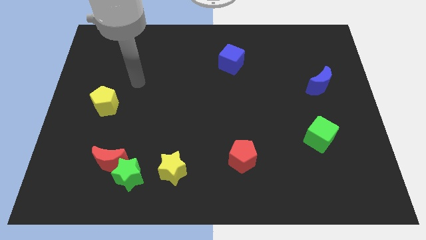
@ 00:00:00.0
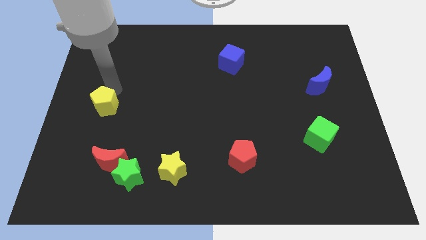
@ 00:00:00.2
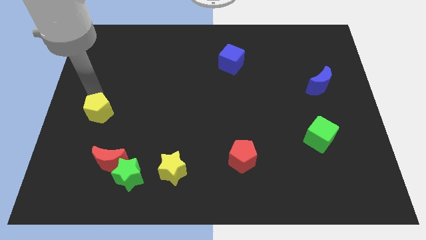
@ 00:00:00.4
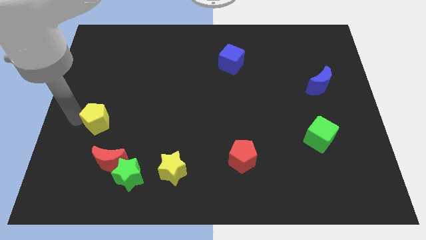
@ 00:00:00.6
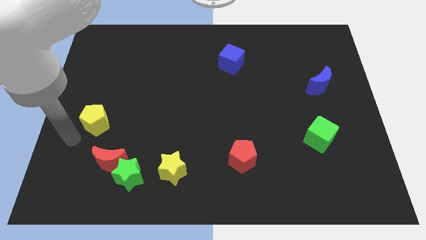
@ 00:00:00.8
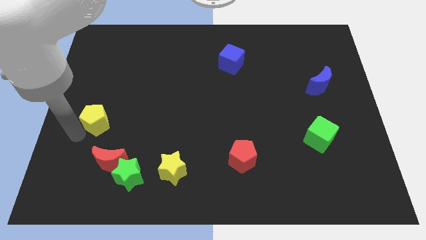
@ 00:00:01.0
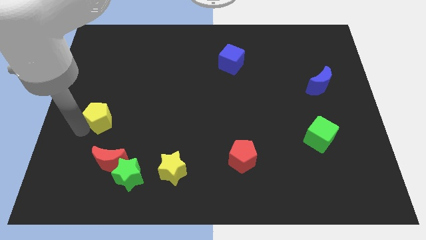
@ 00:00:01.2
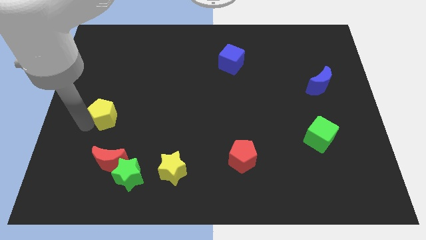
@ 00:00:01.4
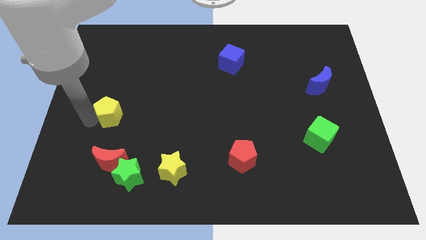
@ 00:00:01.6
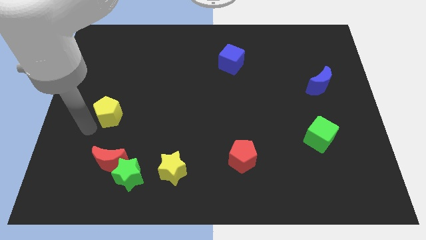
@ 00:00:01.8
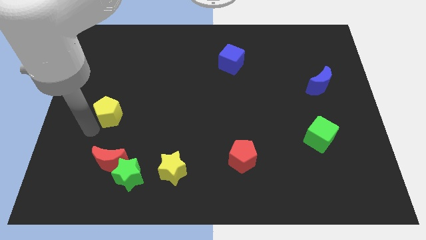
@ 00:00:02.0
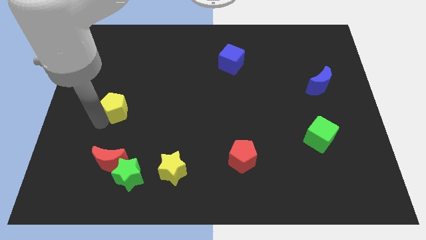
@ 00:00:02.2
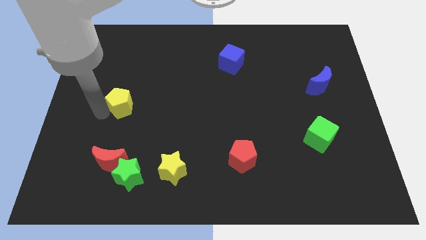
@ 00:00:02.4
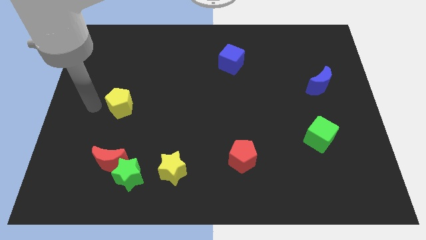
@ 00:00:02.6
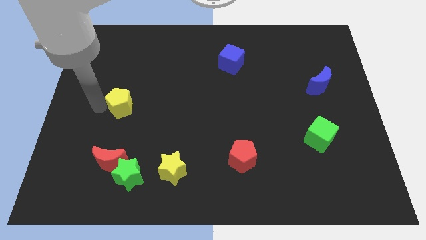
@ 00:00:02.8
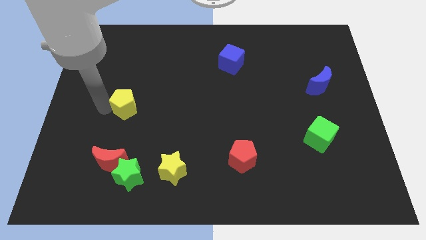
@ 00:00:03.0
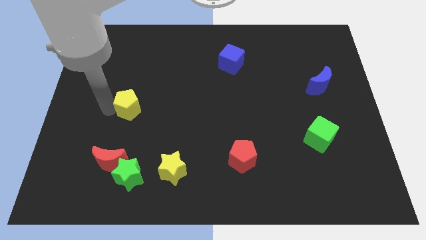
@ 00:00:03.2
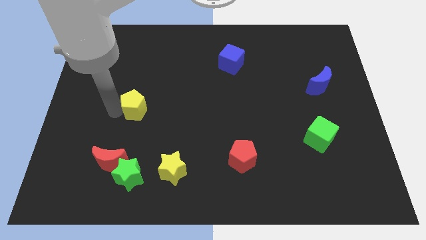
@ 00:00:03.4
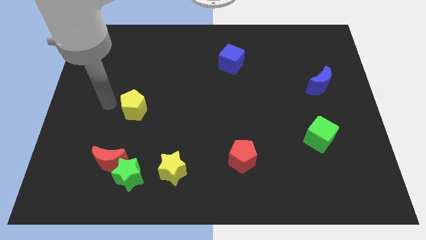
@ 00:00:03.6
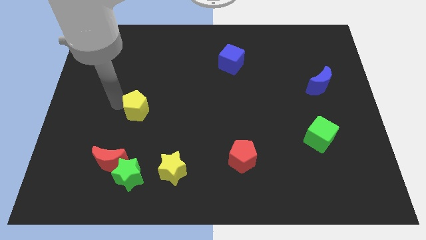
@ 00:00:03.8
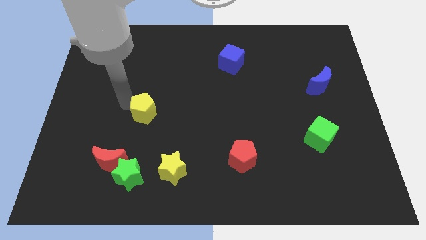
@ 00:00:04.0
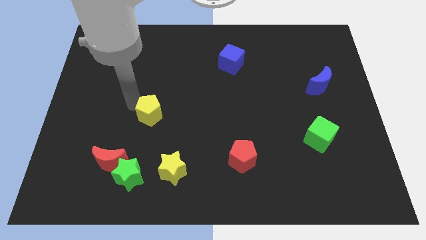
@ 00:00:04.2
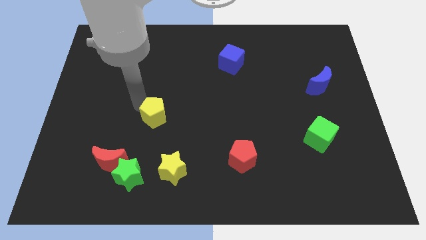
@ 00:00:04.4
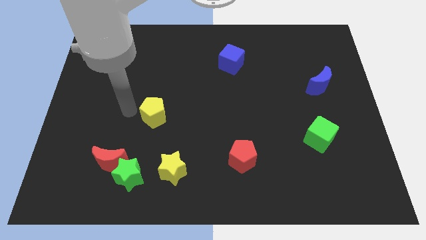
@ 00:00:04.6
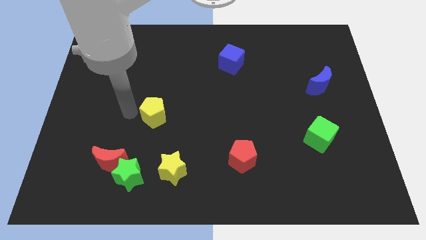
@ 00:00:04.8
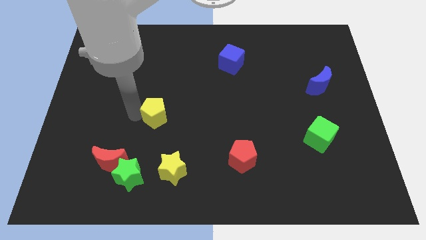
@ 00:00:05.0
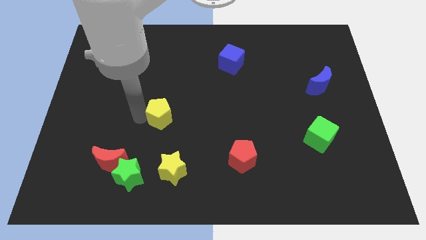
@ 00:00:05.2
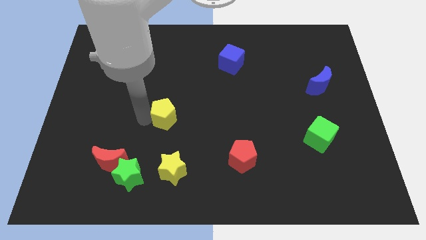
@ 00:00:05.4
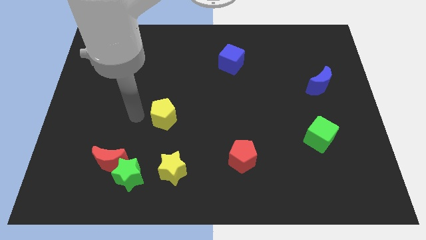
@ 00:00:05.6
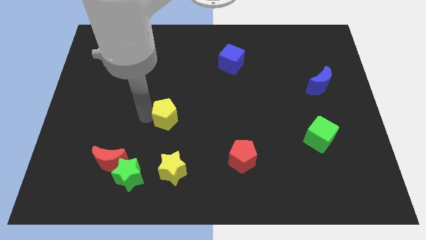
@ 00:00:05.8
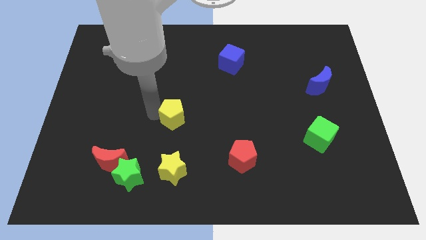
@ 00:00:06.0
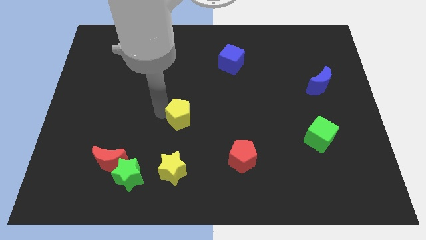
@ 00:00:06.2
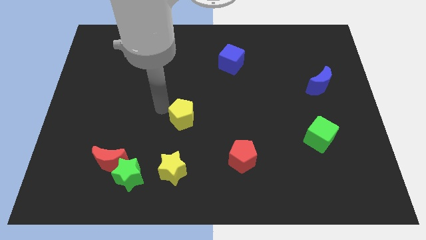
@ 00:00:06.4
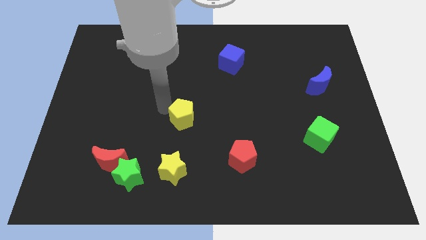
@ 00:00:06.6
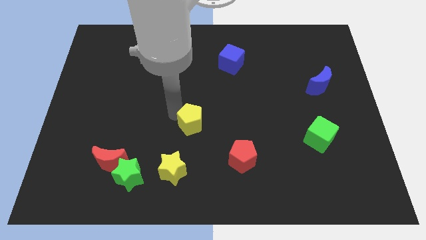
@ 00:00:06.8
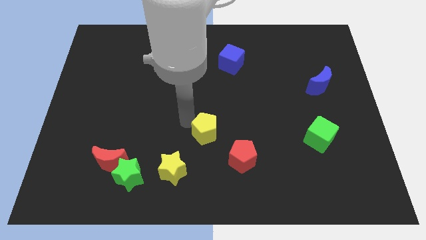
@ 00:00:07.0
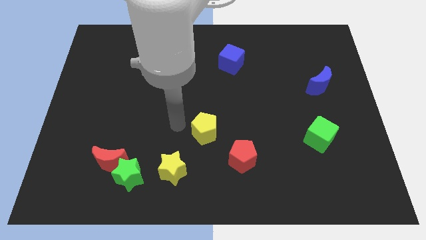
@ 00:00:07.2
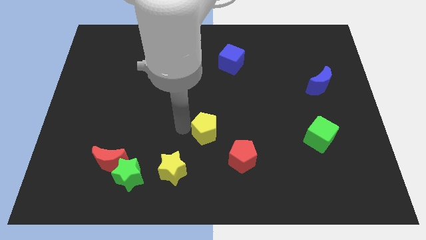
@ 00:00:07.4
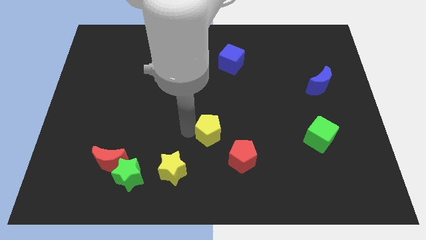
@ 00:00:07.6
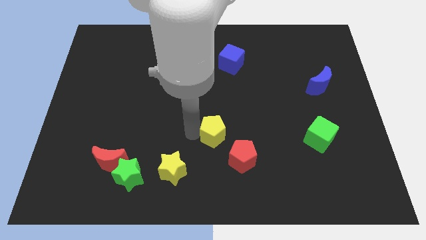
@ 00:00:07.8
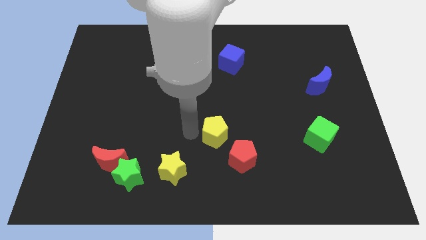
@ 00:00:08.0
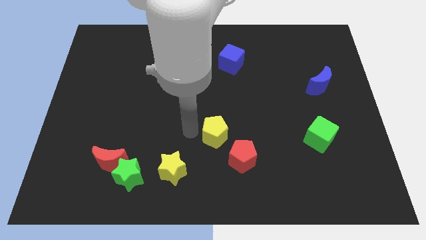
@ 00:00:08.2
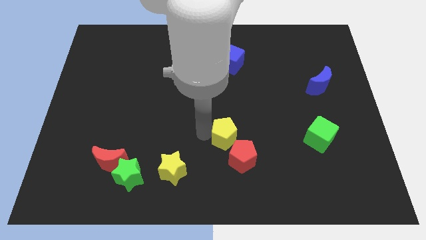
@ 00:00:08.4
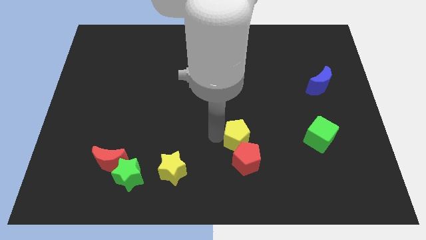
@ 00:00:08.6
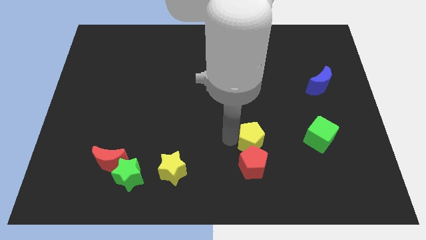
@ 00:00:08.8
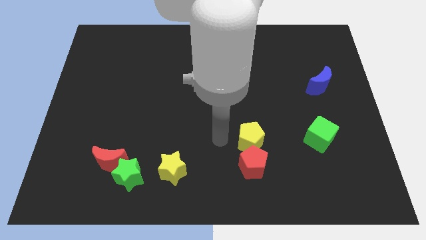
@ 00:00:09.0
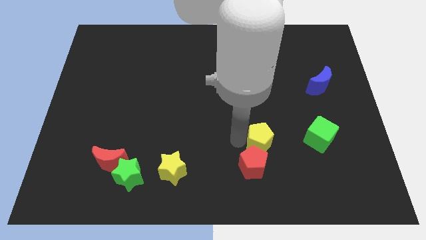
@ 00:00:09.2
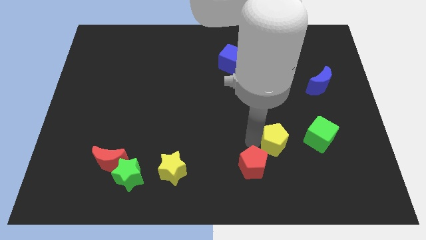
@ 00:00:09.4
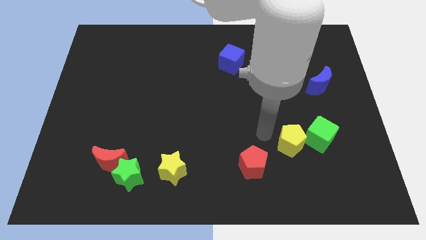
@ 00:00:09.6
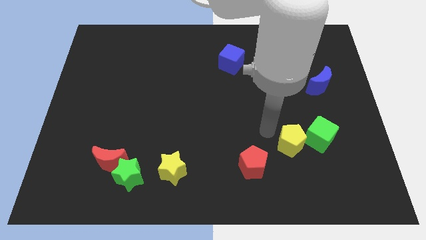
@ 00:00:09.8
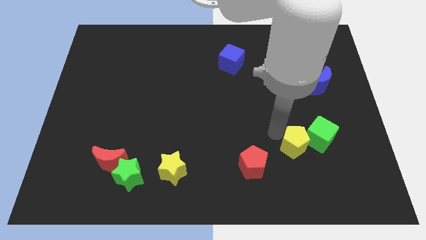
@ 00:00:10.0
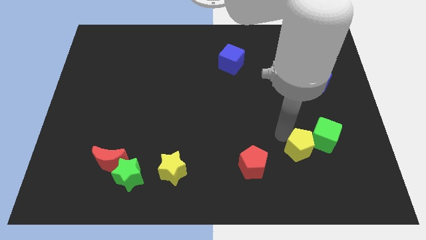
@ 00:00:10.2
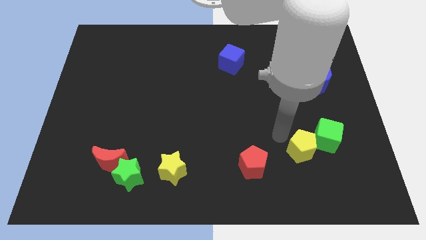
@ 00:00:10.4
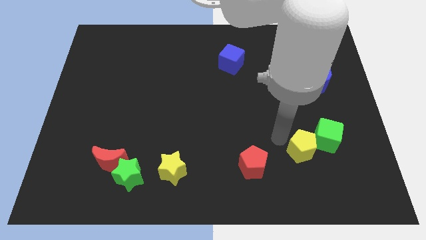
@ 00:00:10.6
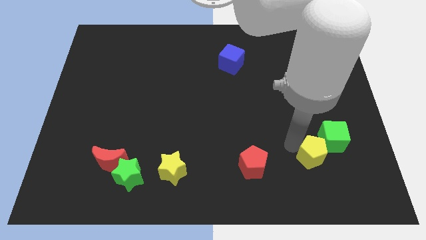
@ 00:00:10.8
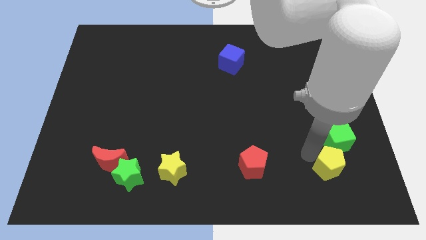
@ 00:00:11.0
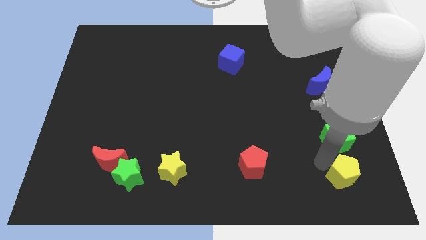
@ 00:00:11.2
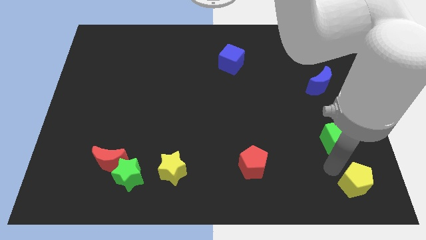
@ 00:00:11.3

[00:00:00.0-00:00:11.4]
slide the yellow pentagon to the bottom right corner
